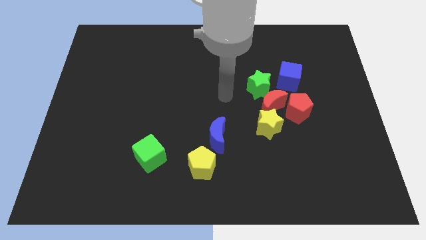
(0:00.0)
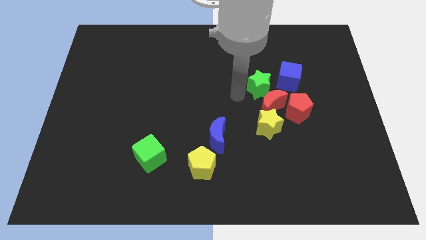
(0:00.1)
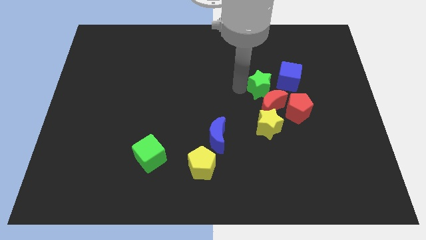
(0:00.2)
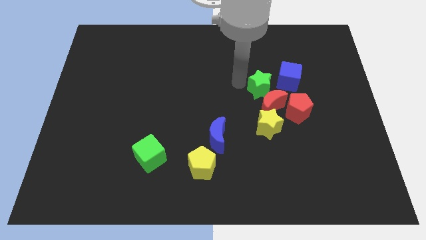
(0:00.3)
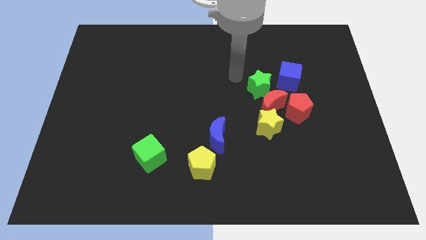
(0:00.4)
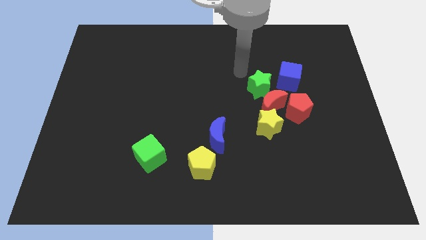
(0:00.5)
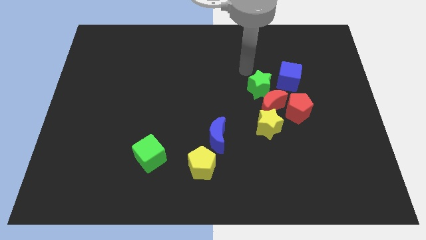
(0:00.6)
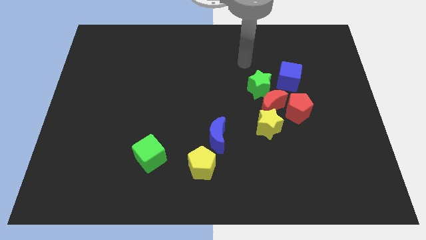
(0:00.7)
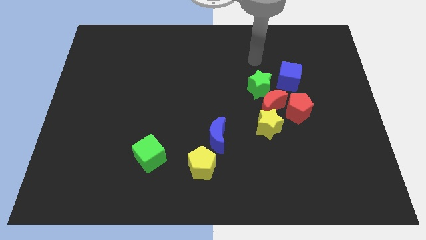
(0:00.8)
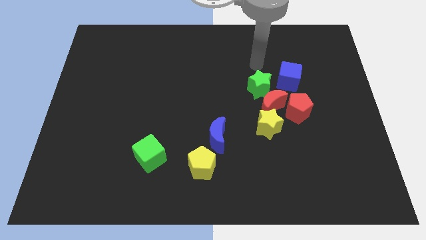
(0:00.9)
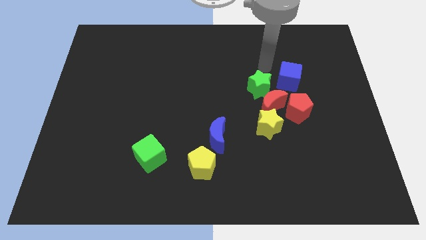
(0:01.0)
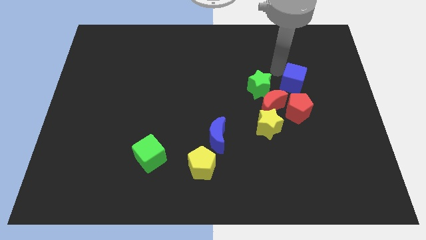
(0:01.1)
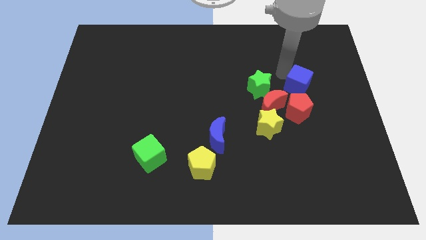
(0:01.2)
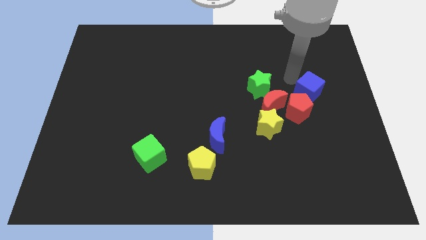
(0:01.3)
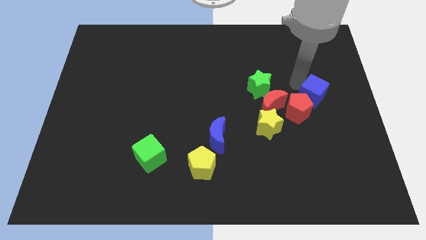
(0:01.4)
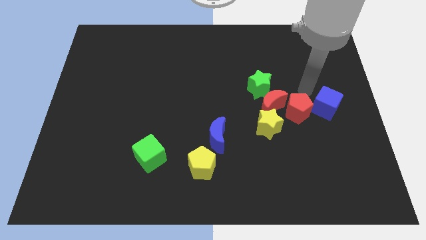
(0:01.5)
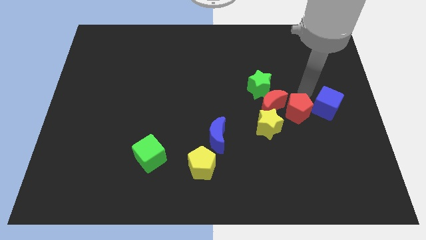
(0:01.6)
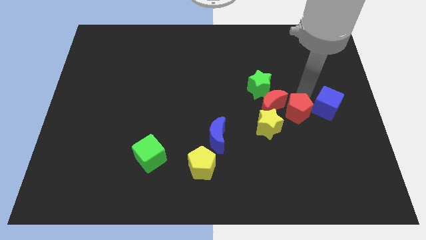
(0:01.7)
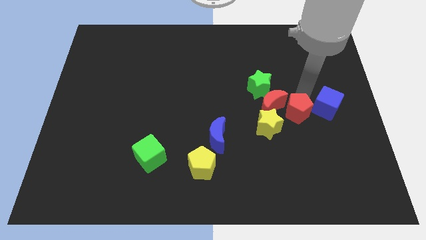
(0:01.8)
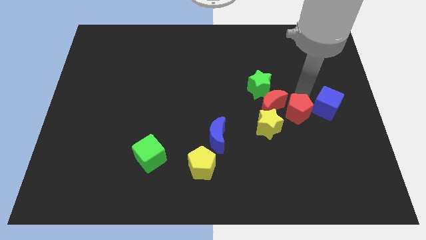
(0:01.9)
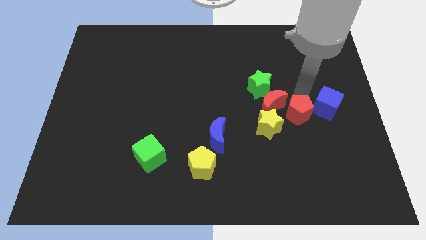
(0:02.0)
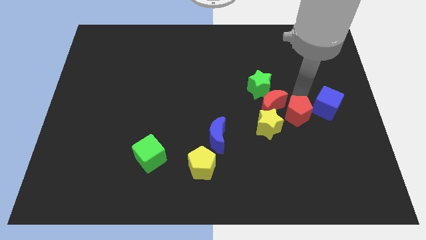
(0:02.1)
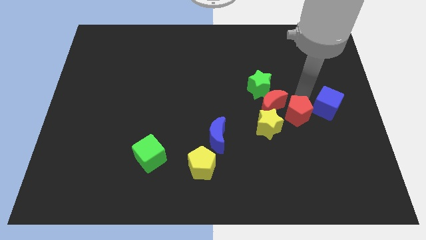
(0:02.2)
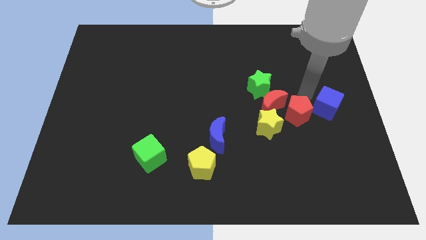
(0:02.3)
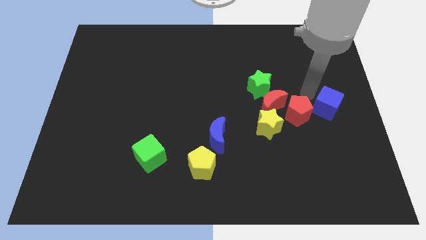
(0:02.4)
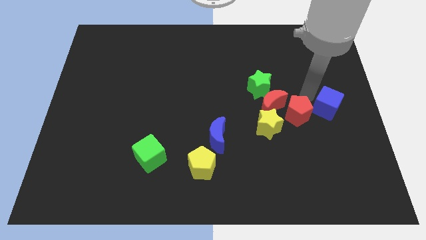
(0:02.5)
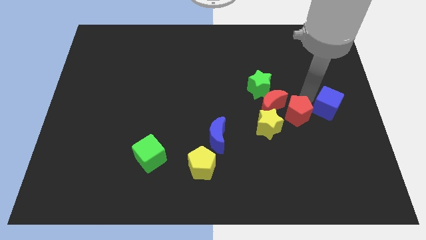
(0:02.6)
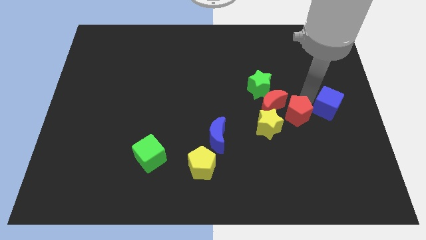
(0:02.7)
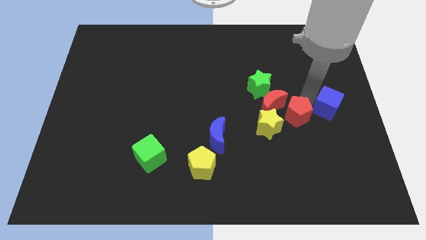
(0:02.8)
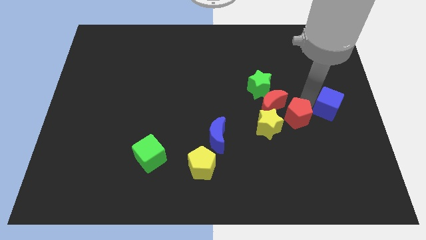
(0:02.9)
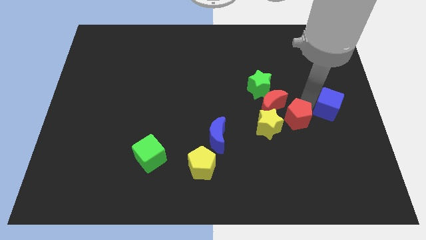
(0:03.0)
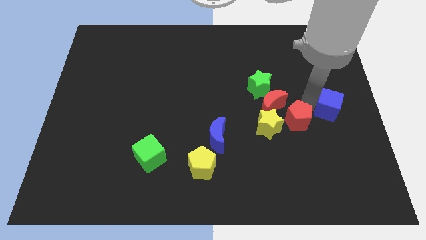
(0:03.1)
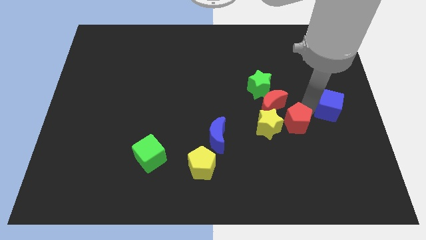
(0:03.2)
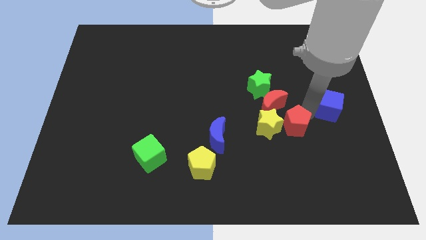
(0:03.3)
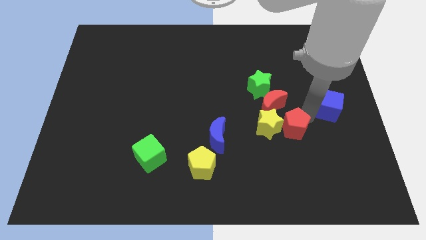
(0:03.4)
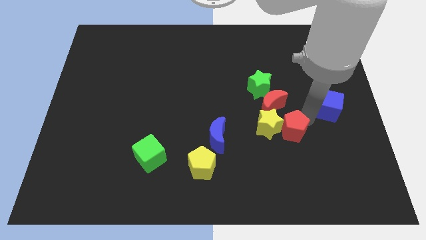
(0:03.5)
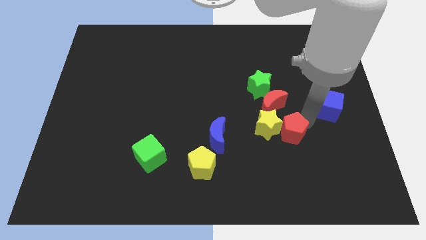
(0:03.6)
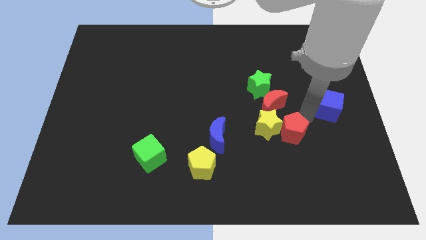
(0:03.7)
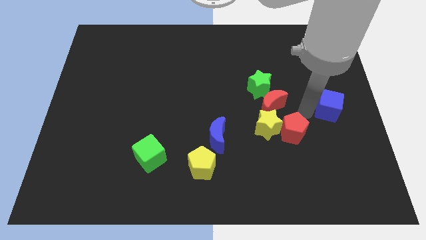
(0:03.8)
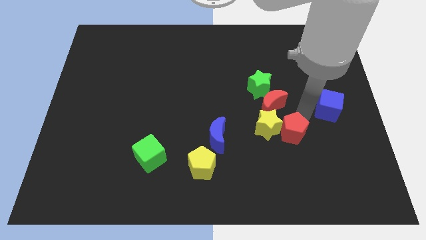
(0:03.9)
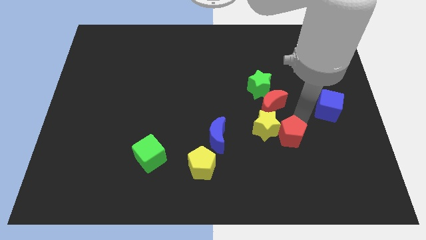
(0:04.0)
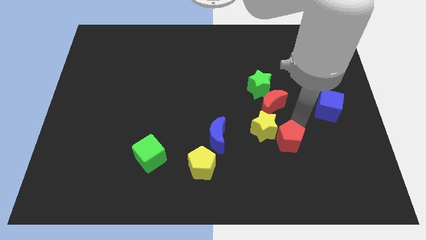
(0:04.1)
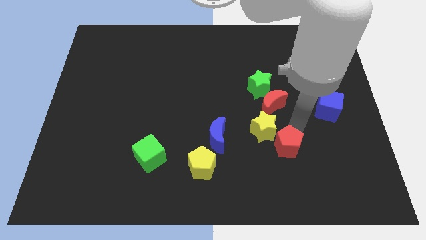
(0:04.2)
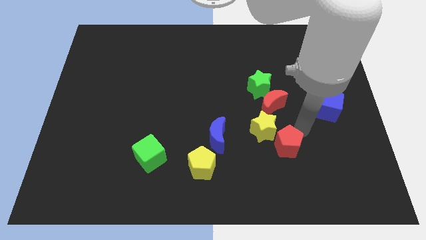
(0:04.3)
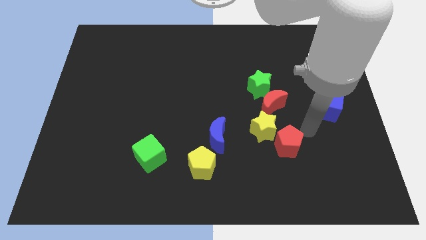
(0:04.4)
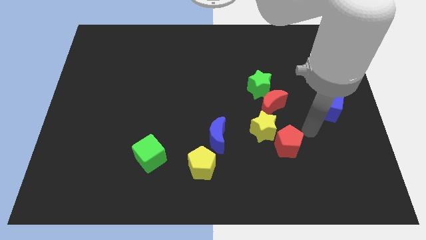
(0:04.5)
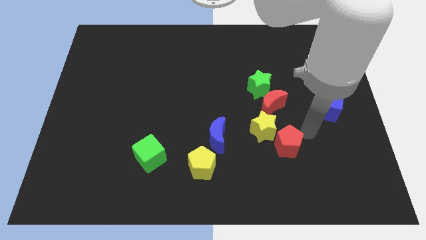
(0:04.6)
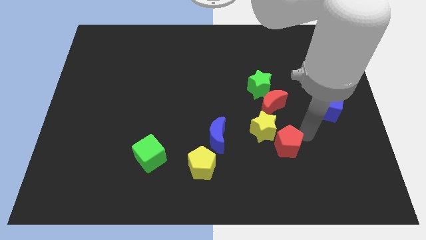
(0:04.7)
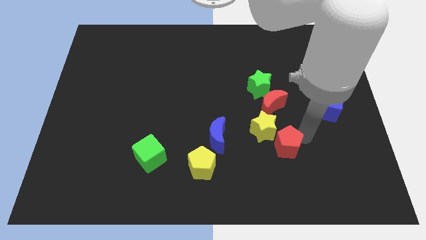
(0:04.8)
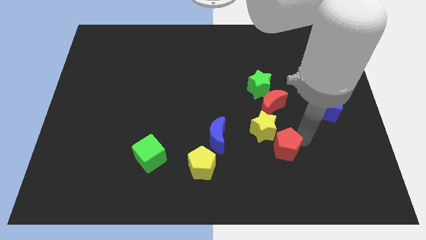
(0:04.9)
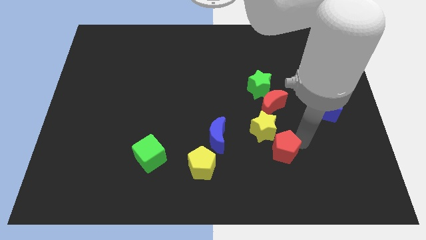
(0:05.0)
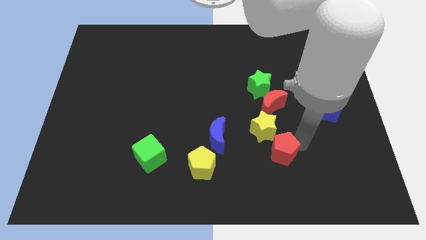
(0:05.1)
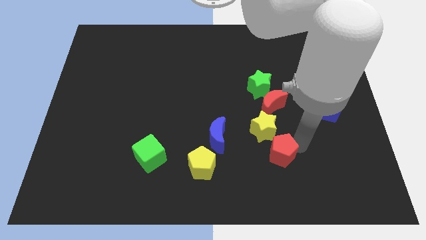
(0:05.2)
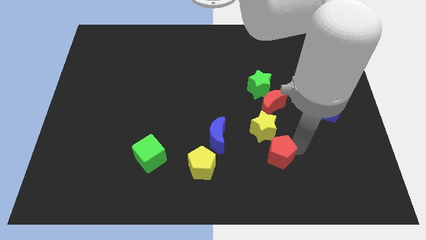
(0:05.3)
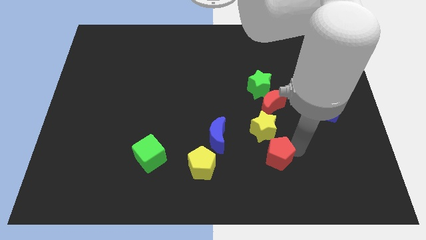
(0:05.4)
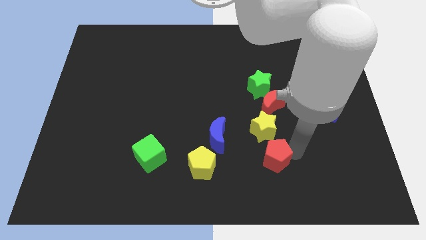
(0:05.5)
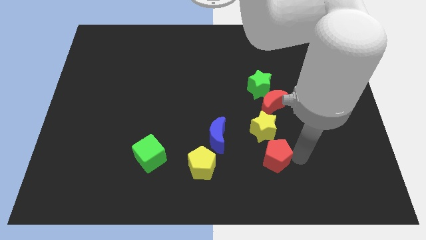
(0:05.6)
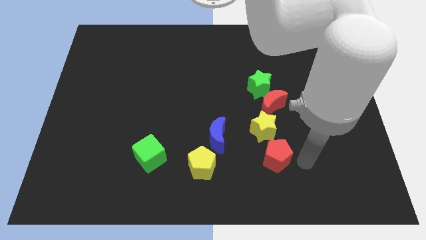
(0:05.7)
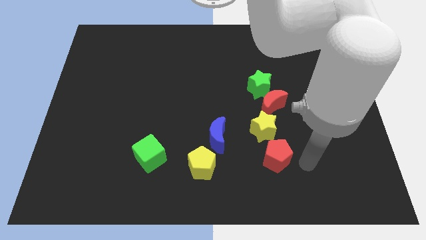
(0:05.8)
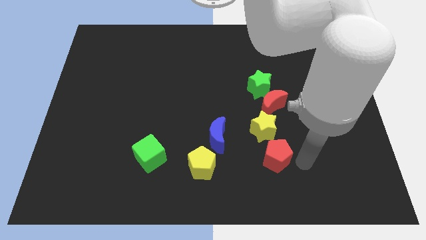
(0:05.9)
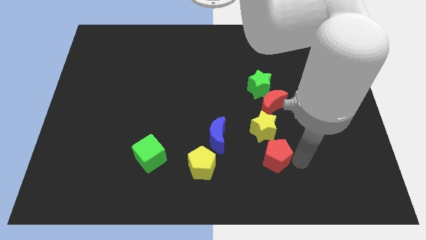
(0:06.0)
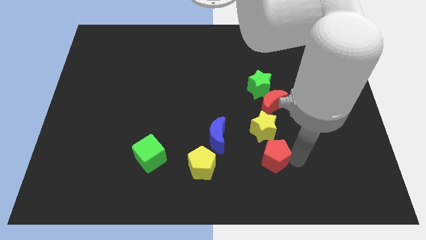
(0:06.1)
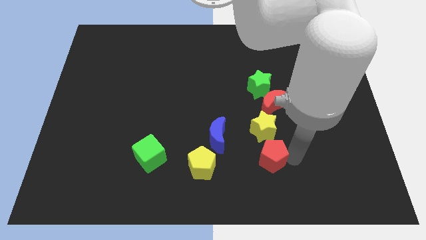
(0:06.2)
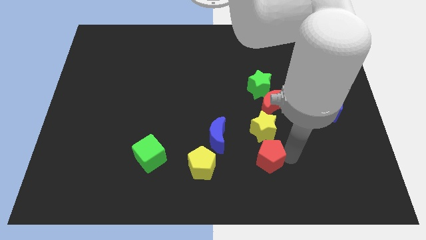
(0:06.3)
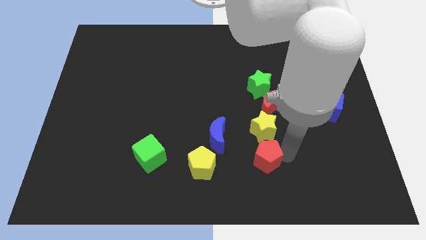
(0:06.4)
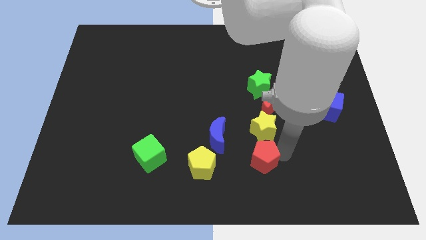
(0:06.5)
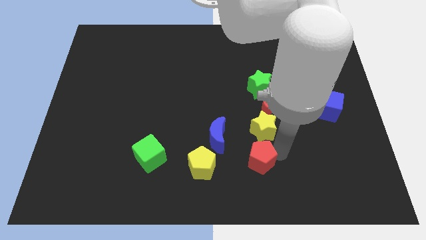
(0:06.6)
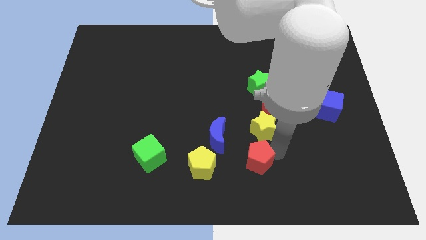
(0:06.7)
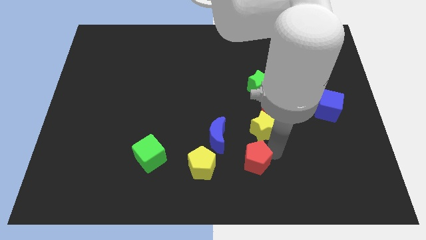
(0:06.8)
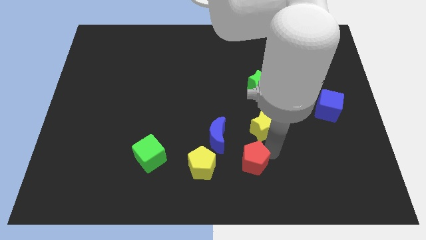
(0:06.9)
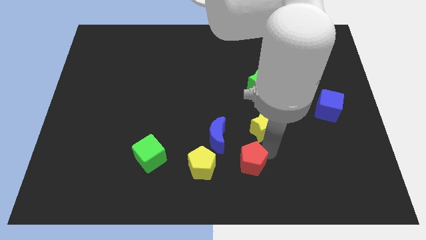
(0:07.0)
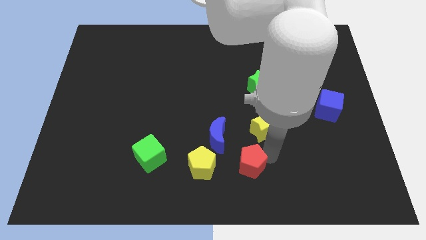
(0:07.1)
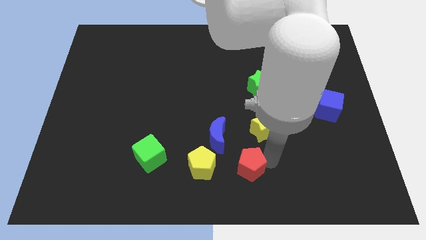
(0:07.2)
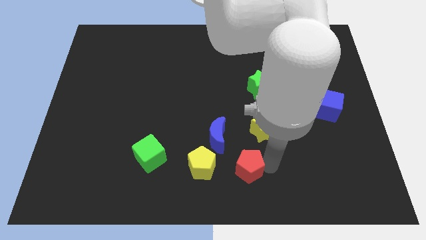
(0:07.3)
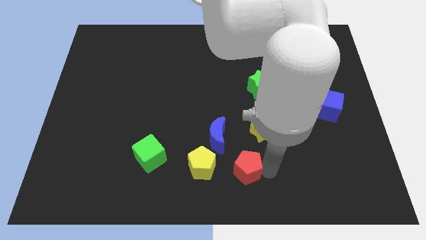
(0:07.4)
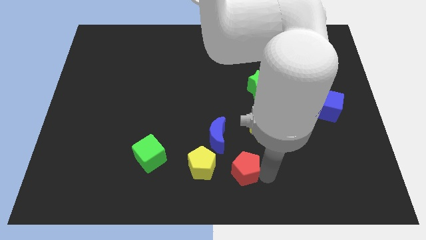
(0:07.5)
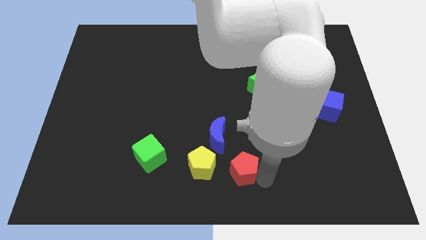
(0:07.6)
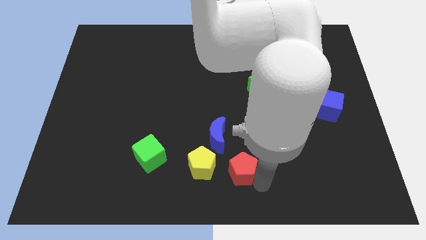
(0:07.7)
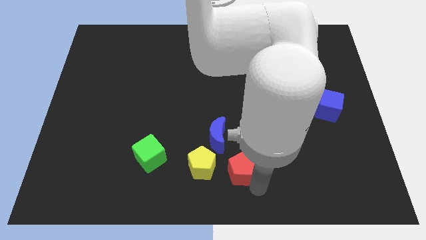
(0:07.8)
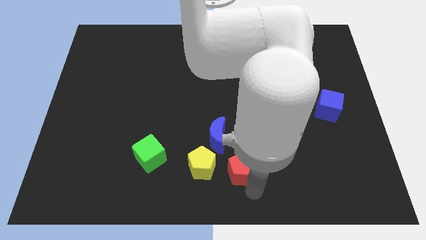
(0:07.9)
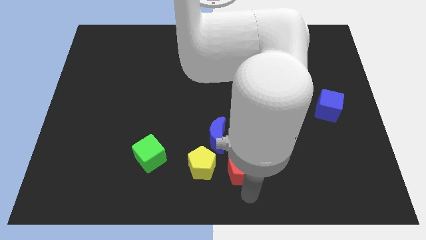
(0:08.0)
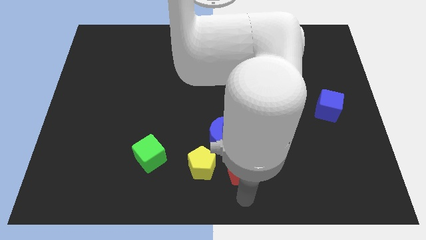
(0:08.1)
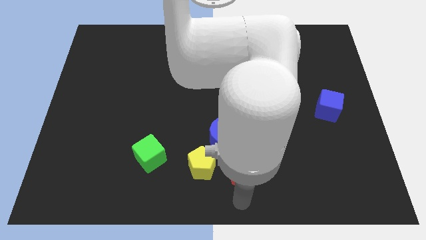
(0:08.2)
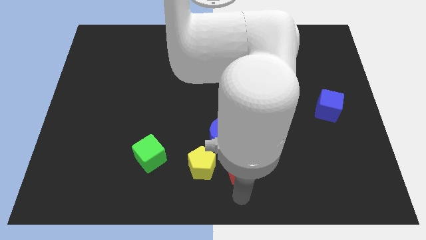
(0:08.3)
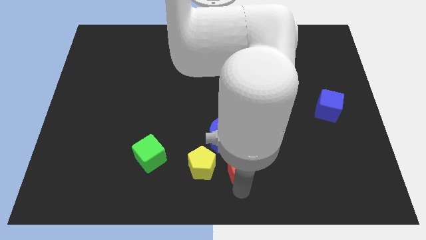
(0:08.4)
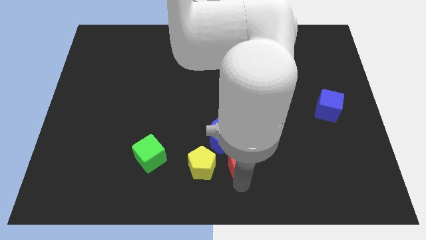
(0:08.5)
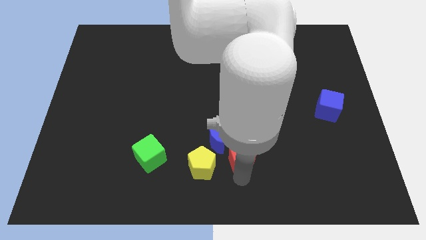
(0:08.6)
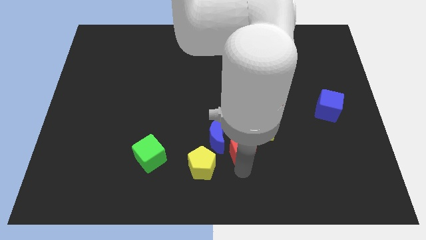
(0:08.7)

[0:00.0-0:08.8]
slightly slide the red pentagon left
